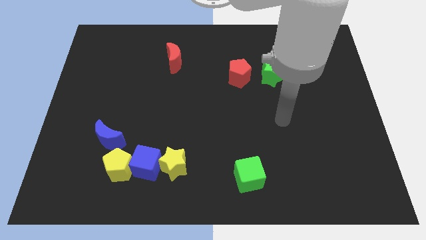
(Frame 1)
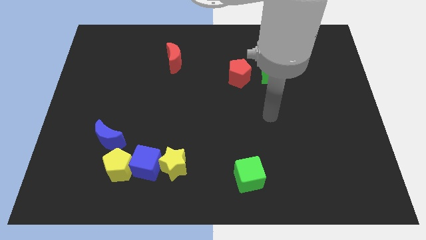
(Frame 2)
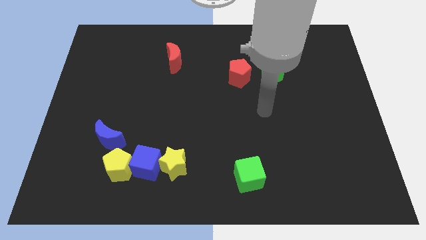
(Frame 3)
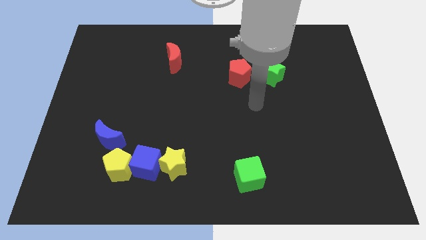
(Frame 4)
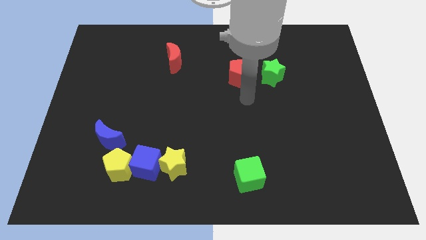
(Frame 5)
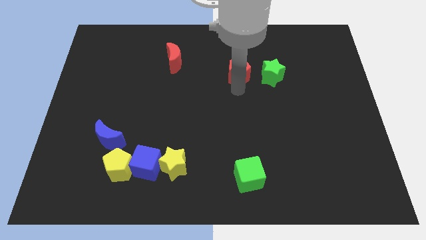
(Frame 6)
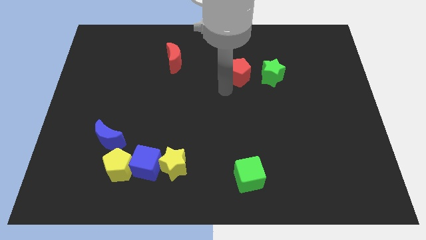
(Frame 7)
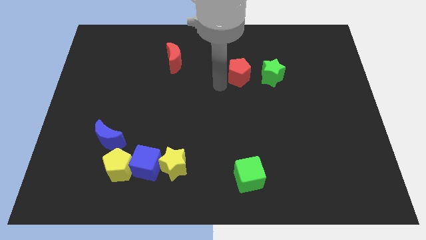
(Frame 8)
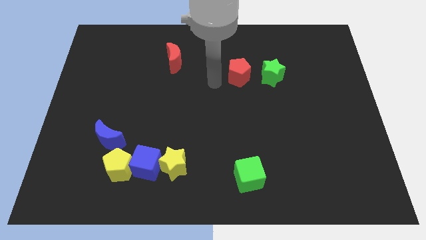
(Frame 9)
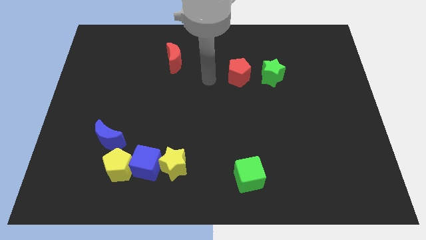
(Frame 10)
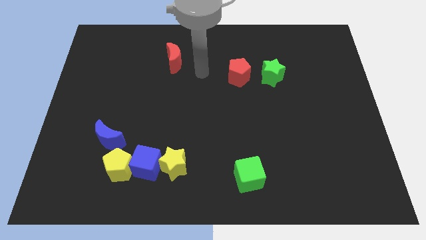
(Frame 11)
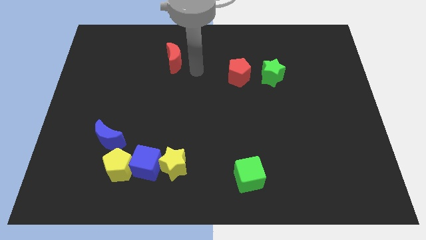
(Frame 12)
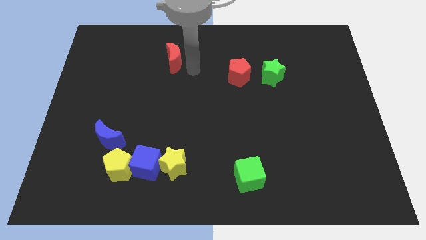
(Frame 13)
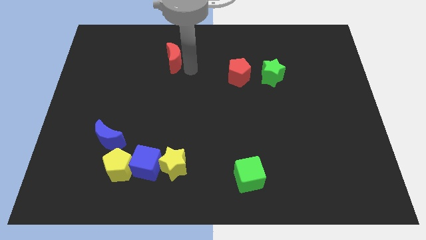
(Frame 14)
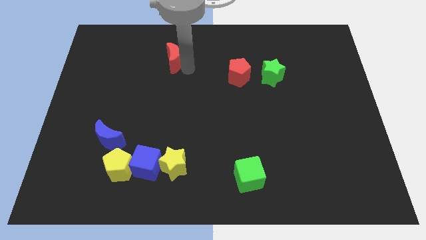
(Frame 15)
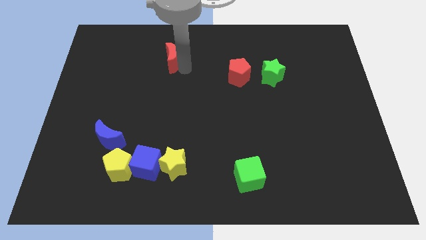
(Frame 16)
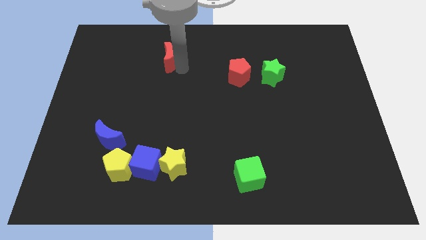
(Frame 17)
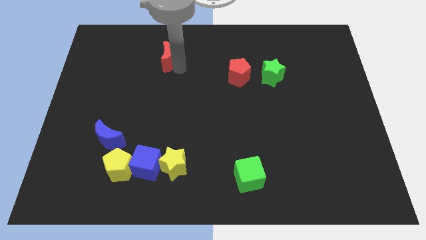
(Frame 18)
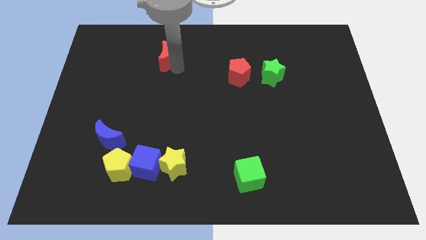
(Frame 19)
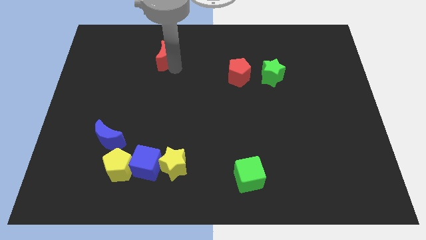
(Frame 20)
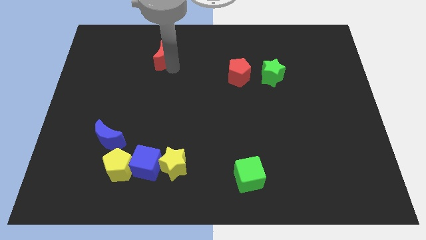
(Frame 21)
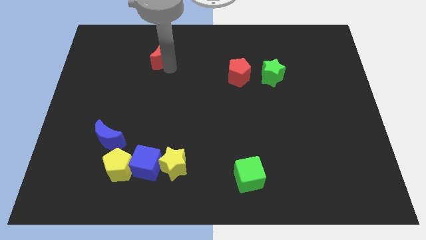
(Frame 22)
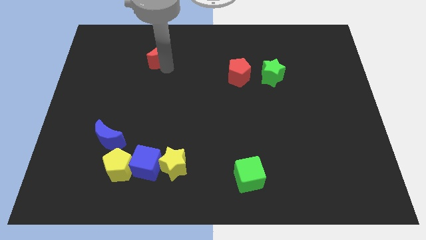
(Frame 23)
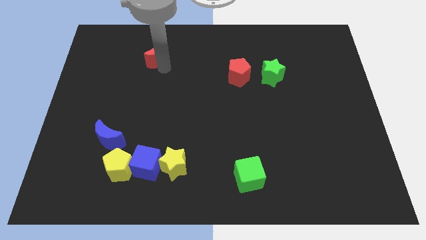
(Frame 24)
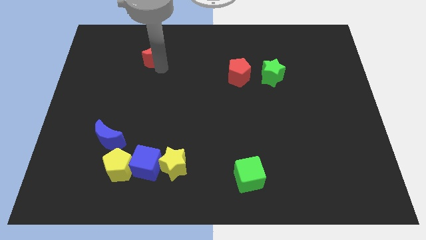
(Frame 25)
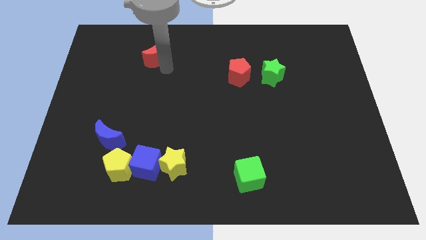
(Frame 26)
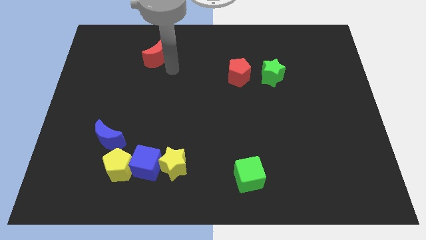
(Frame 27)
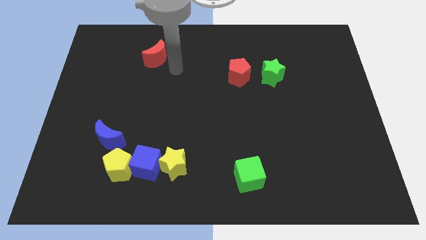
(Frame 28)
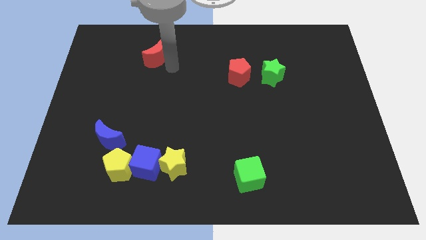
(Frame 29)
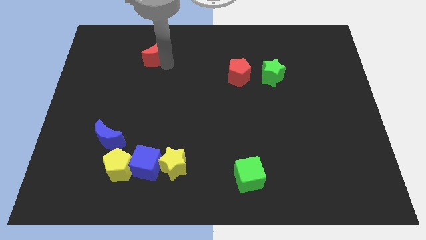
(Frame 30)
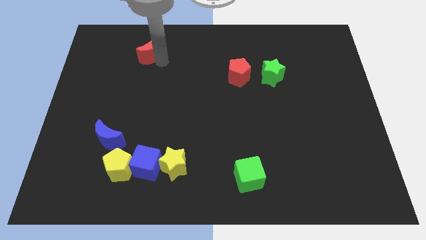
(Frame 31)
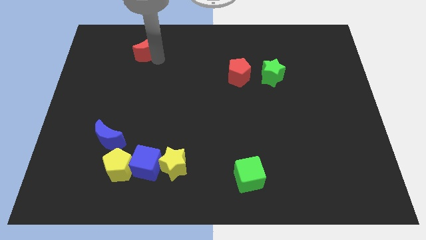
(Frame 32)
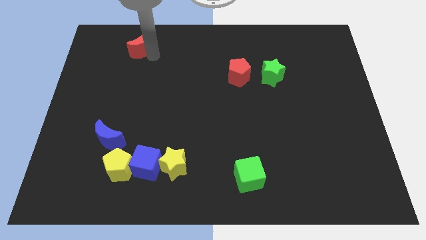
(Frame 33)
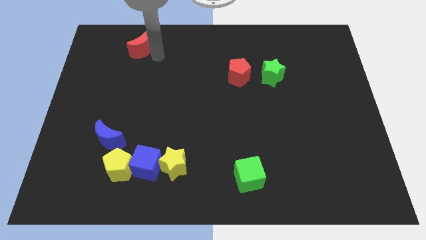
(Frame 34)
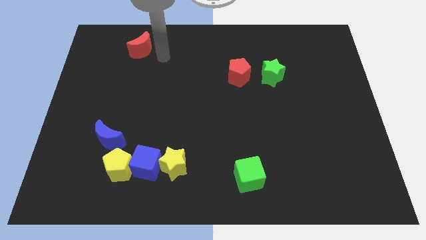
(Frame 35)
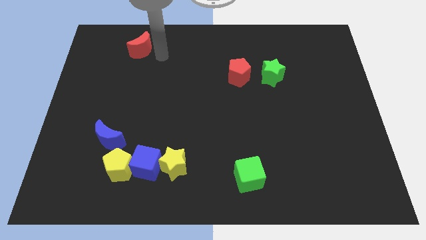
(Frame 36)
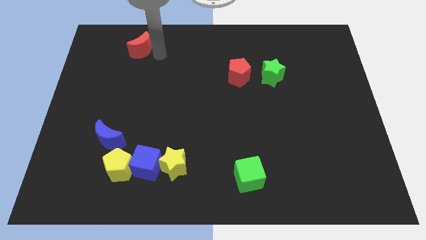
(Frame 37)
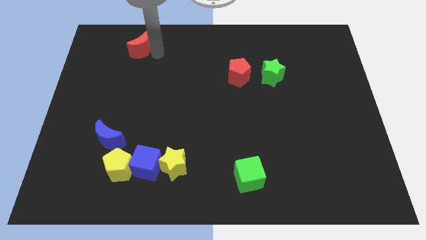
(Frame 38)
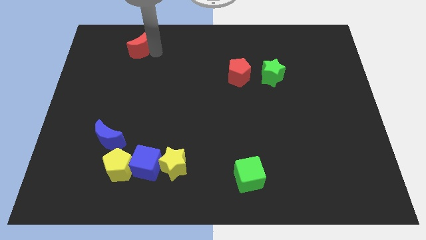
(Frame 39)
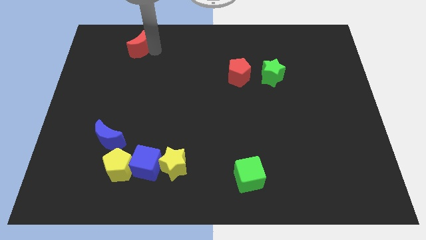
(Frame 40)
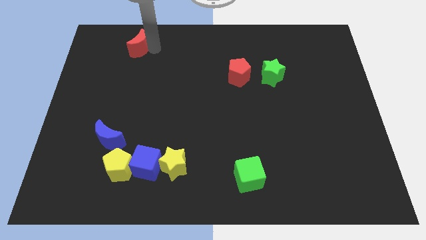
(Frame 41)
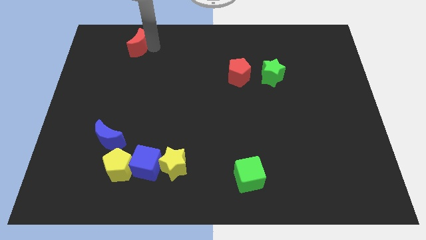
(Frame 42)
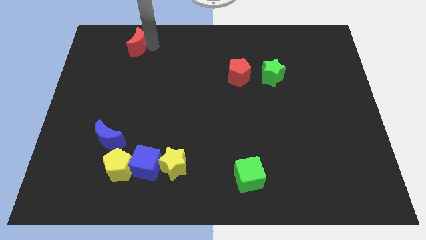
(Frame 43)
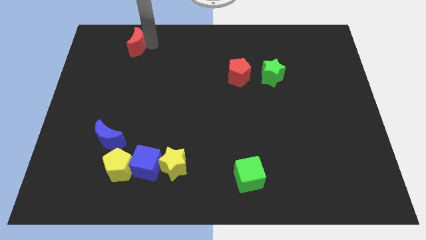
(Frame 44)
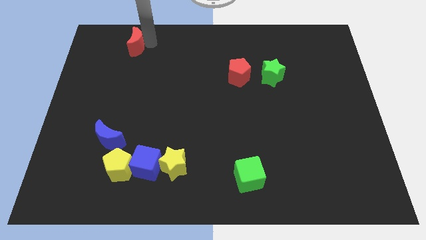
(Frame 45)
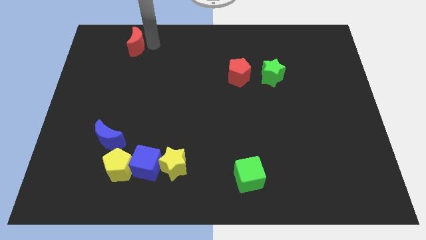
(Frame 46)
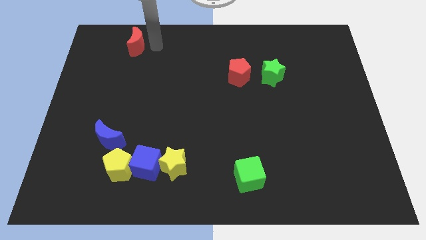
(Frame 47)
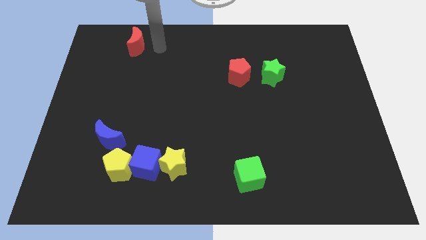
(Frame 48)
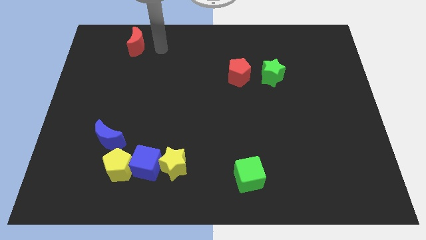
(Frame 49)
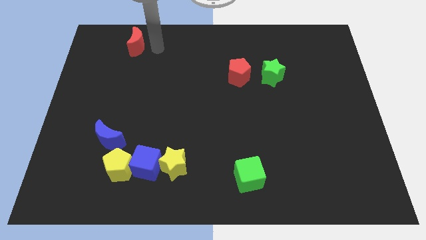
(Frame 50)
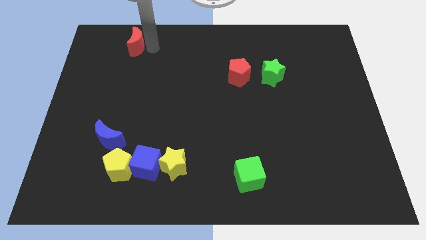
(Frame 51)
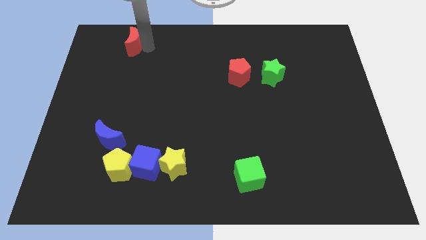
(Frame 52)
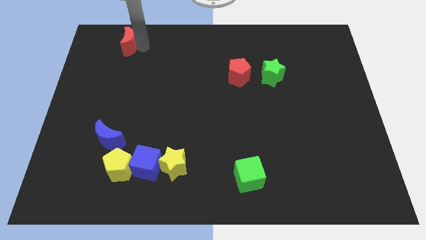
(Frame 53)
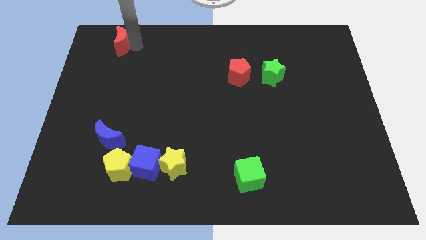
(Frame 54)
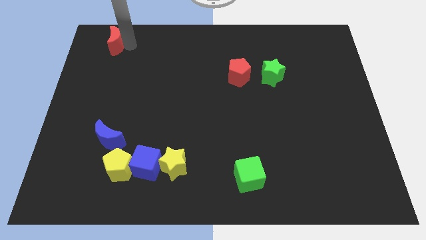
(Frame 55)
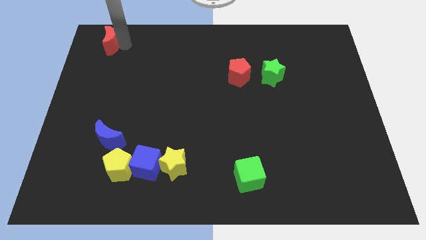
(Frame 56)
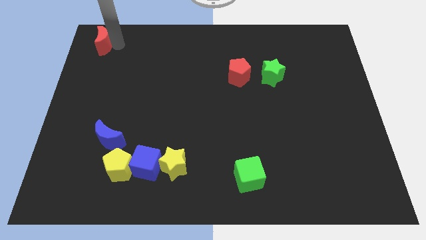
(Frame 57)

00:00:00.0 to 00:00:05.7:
push the red moon to the upper left corner

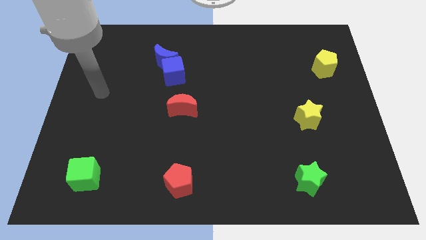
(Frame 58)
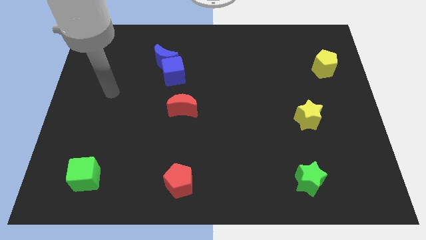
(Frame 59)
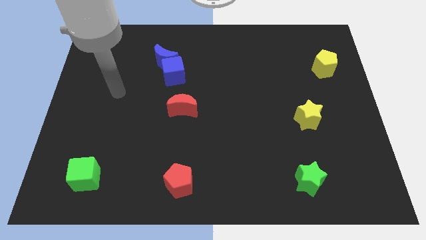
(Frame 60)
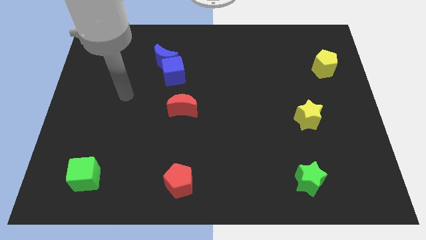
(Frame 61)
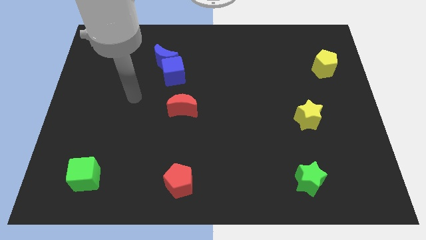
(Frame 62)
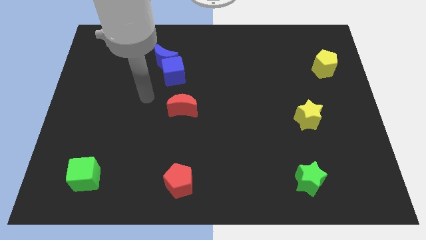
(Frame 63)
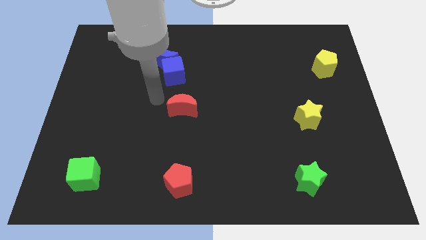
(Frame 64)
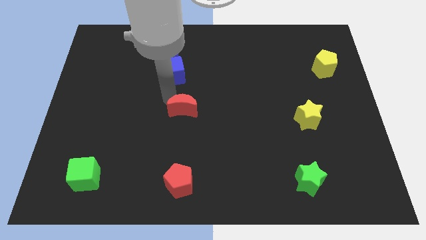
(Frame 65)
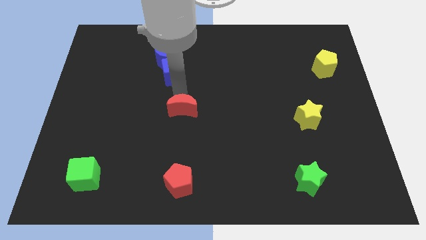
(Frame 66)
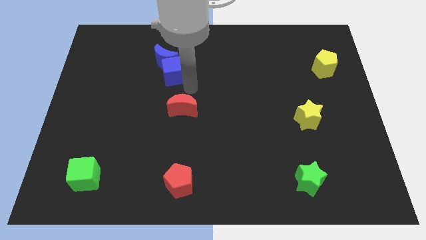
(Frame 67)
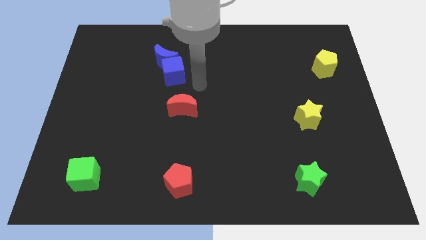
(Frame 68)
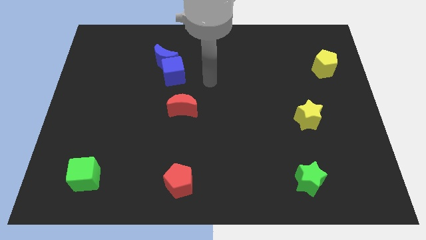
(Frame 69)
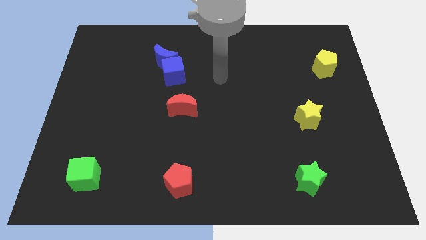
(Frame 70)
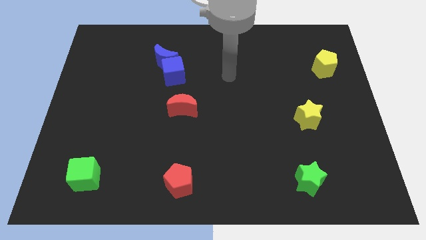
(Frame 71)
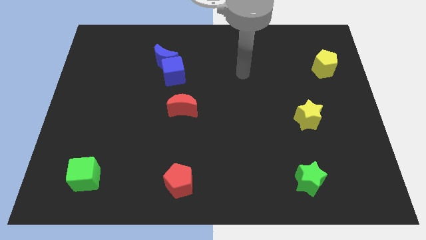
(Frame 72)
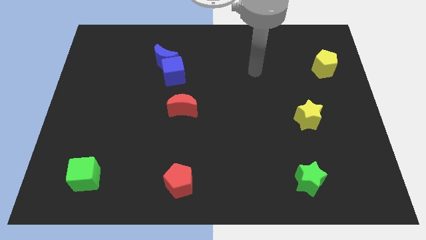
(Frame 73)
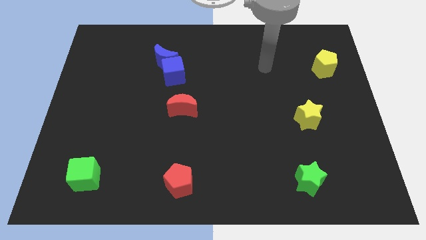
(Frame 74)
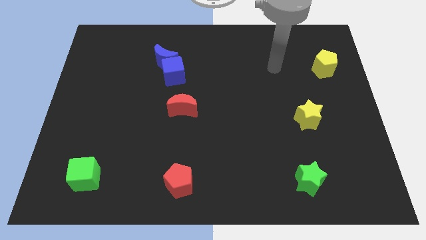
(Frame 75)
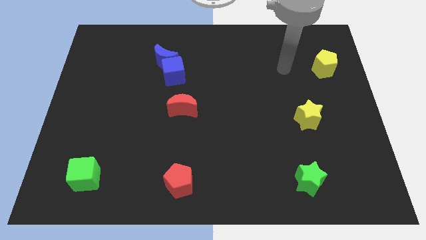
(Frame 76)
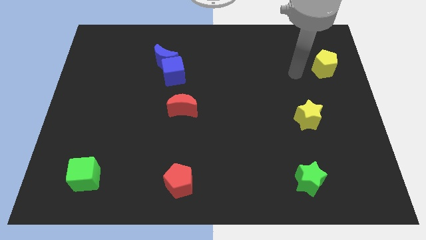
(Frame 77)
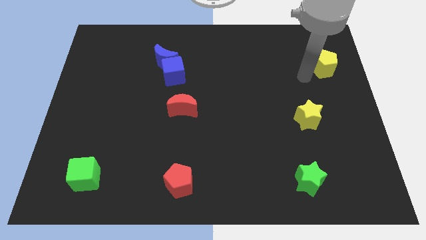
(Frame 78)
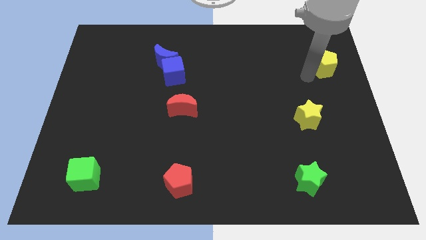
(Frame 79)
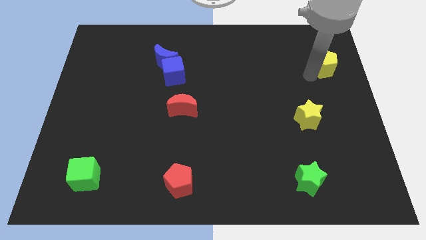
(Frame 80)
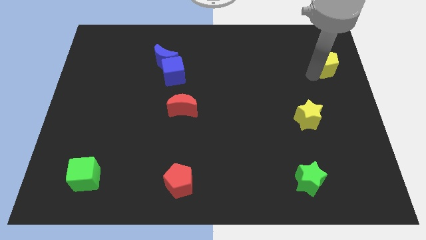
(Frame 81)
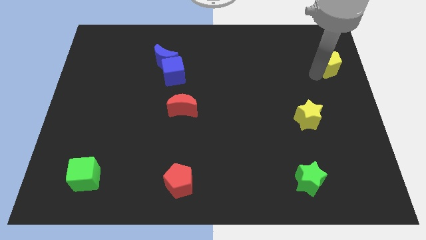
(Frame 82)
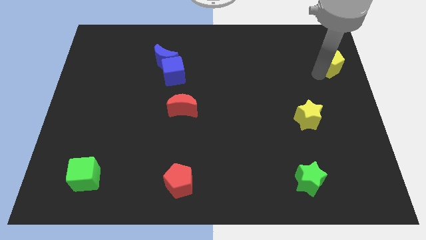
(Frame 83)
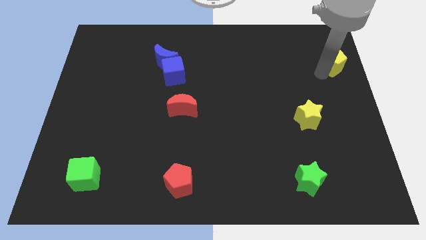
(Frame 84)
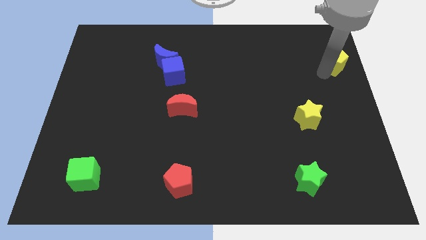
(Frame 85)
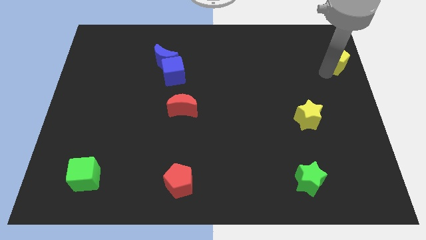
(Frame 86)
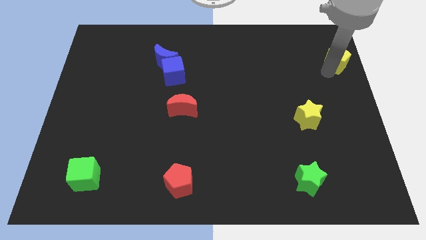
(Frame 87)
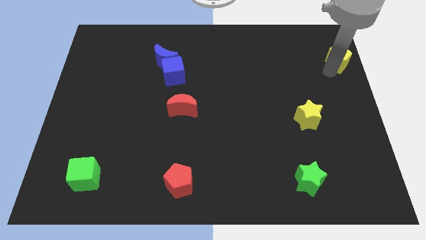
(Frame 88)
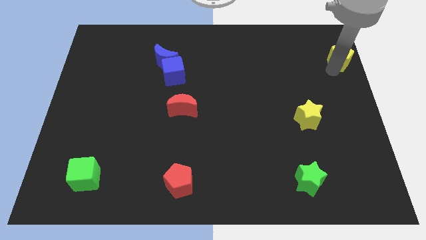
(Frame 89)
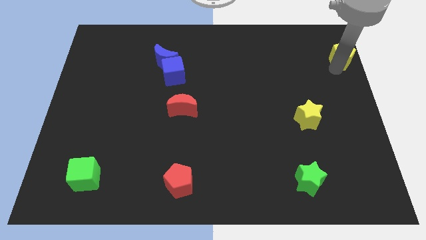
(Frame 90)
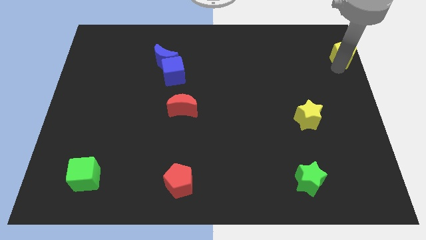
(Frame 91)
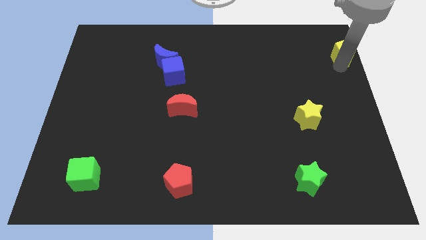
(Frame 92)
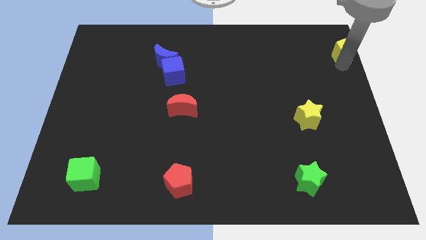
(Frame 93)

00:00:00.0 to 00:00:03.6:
move the yellow pentagon to the top right corner
